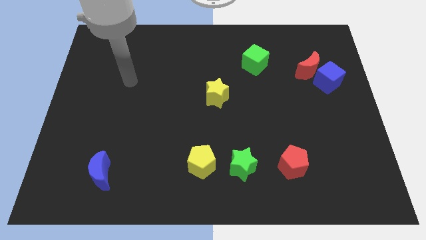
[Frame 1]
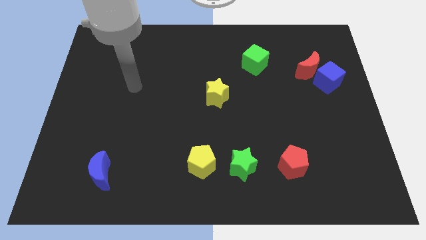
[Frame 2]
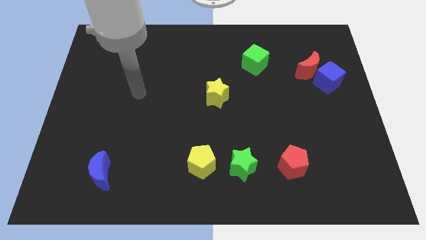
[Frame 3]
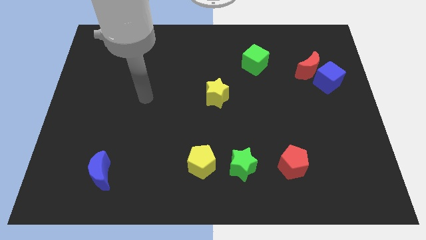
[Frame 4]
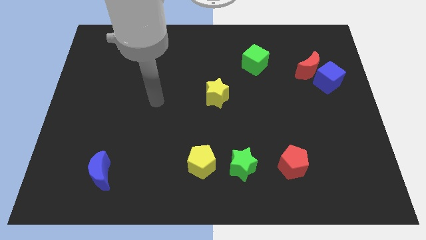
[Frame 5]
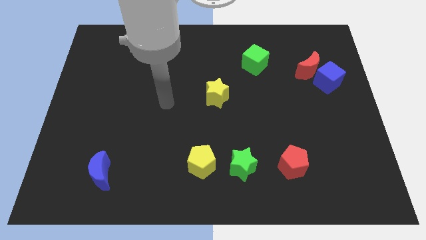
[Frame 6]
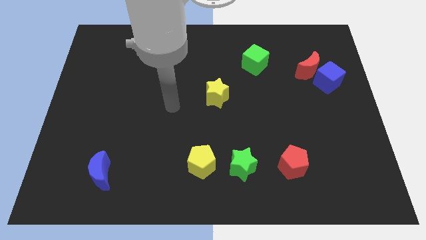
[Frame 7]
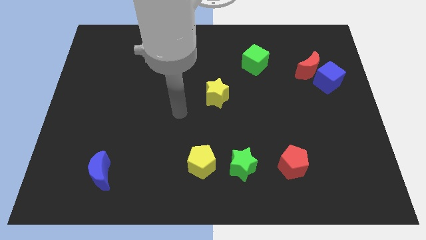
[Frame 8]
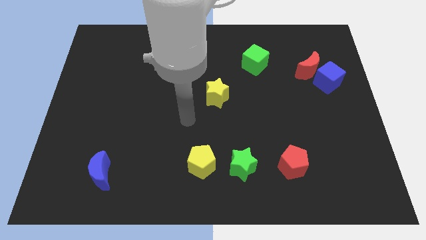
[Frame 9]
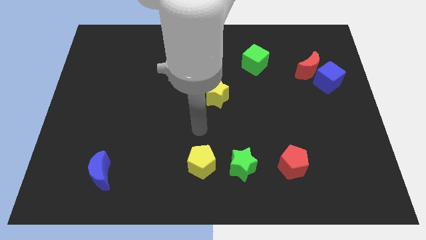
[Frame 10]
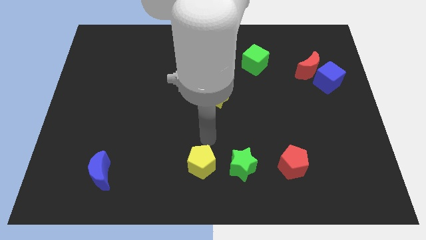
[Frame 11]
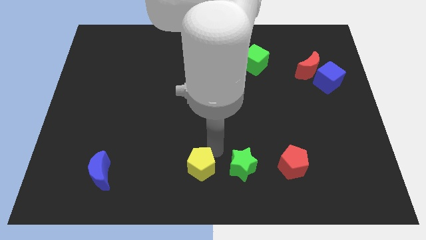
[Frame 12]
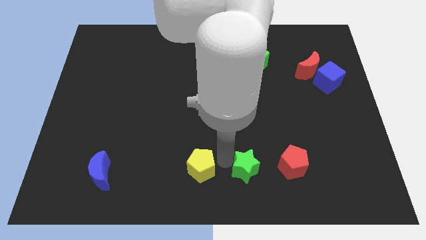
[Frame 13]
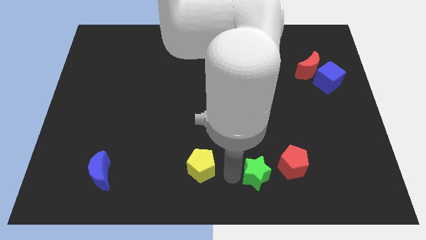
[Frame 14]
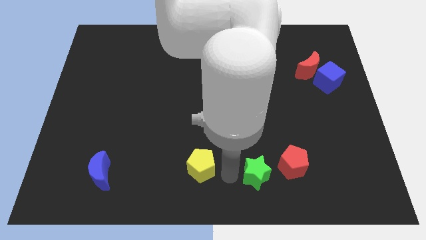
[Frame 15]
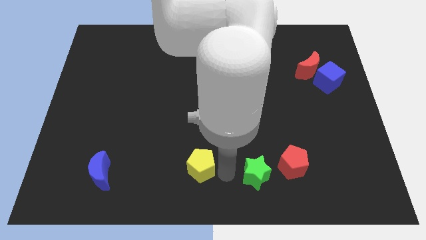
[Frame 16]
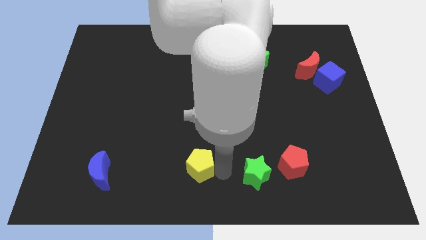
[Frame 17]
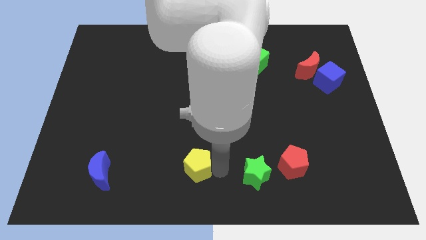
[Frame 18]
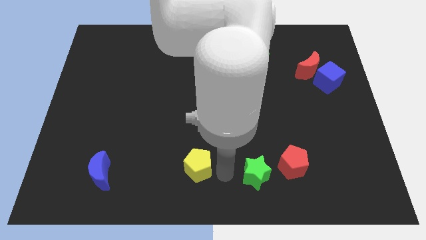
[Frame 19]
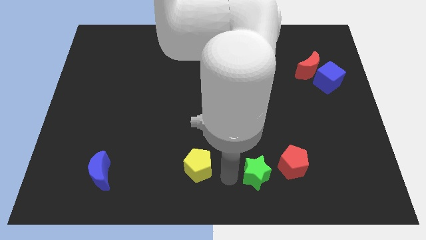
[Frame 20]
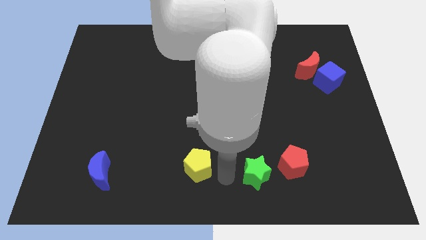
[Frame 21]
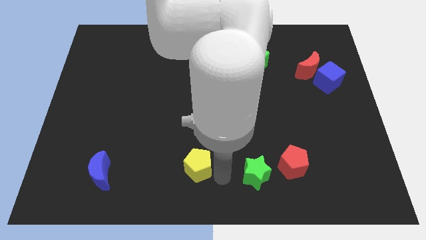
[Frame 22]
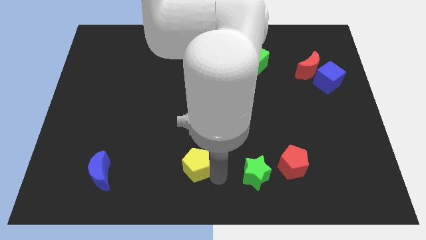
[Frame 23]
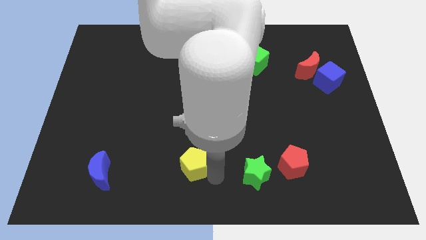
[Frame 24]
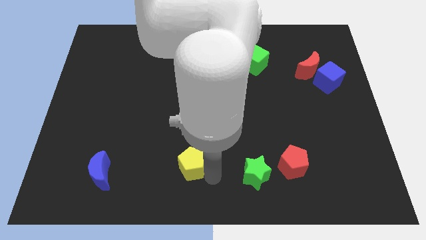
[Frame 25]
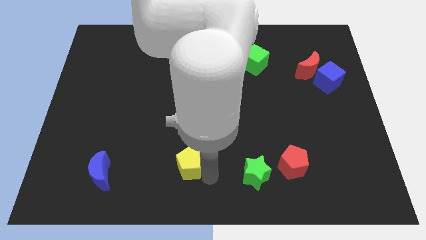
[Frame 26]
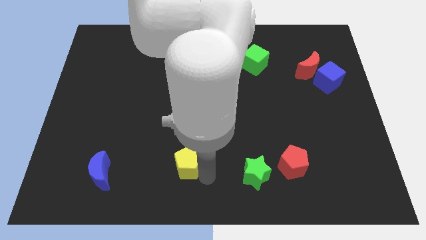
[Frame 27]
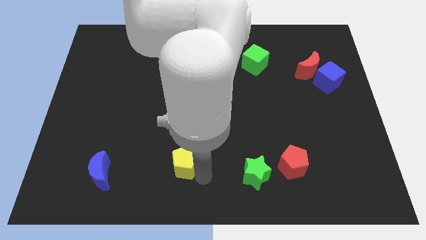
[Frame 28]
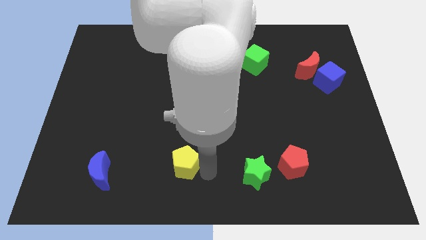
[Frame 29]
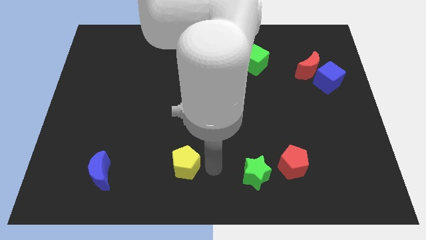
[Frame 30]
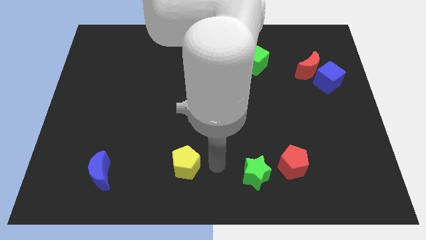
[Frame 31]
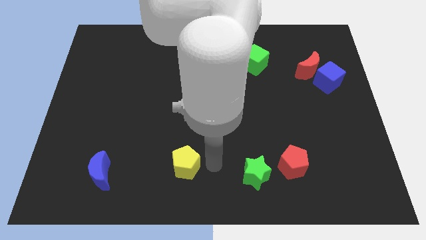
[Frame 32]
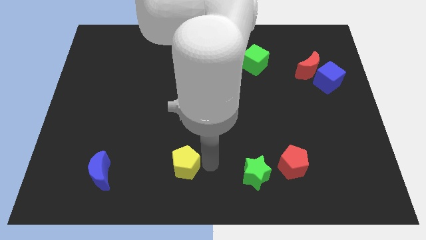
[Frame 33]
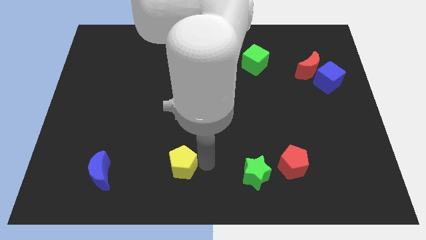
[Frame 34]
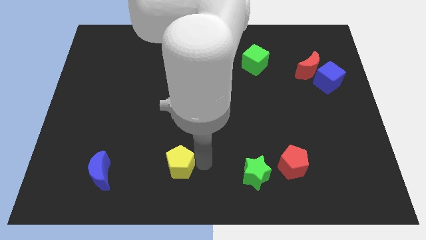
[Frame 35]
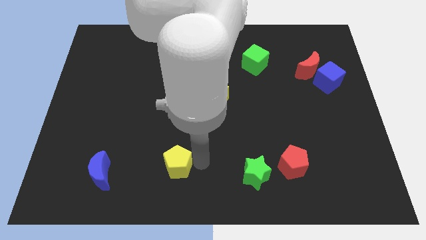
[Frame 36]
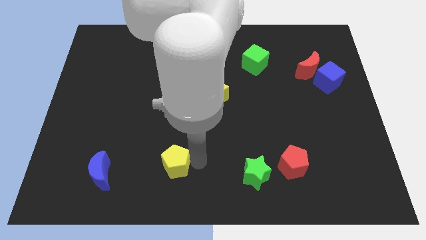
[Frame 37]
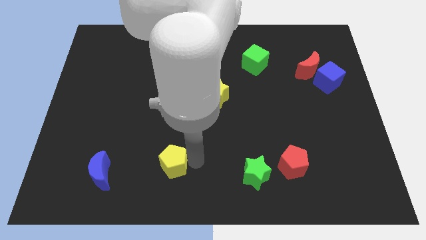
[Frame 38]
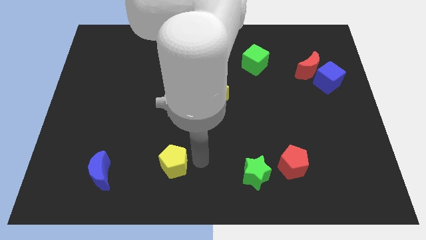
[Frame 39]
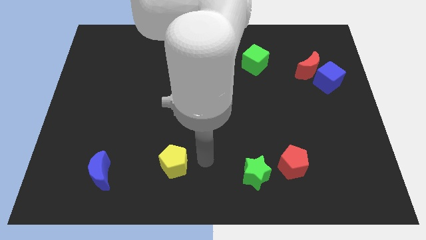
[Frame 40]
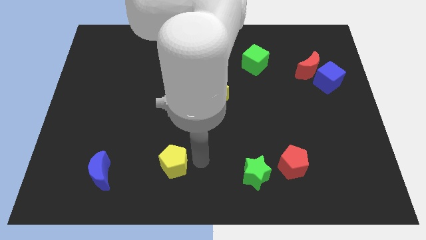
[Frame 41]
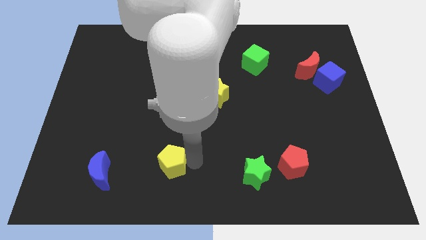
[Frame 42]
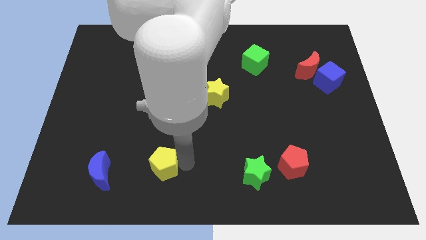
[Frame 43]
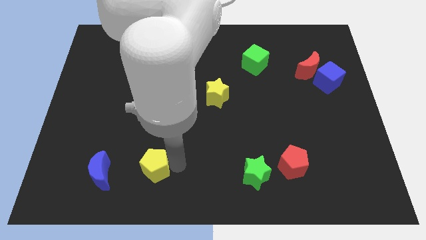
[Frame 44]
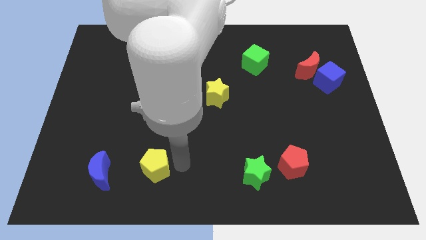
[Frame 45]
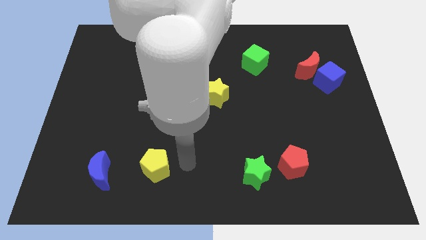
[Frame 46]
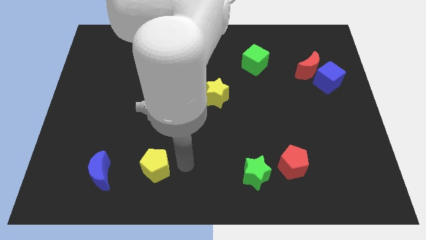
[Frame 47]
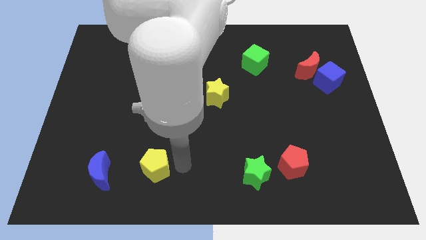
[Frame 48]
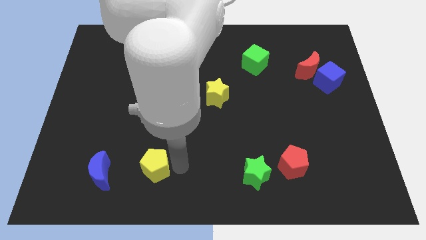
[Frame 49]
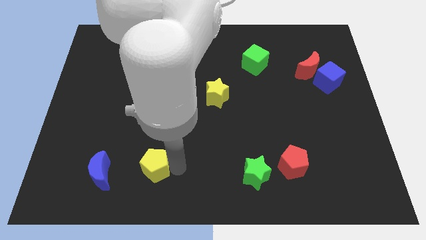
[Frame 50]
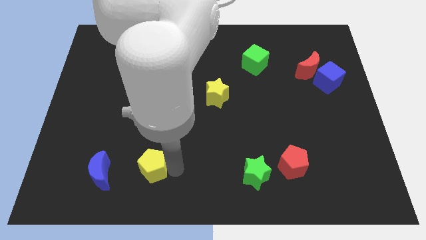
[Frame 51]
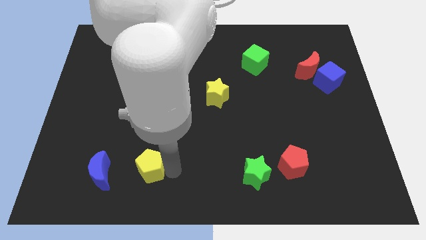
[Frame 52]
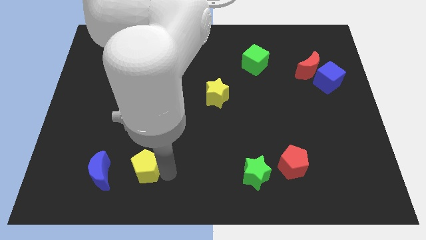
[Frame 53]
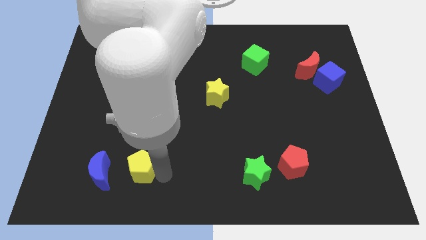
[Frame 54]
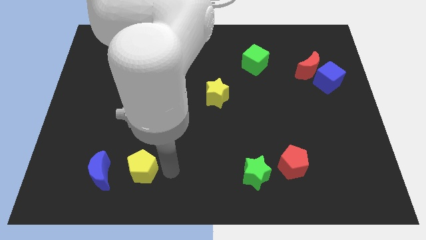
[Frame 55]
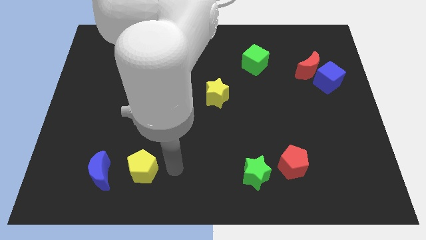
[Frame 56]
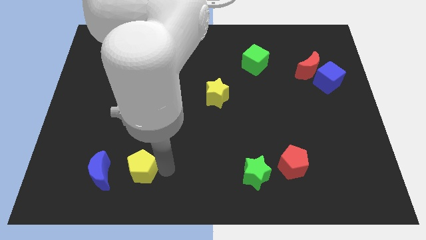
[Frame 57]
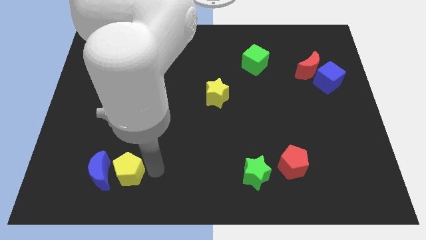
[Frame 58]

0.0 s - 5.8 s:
put the yellow pentagon to the blue moon

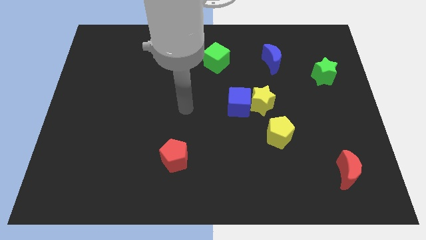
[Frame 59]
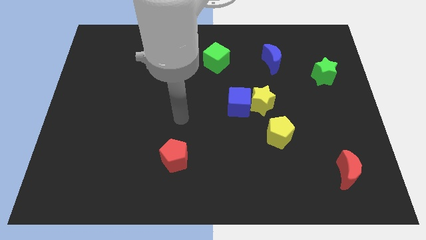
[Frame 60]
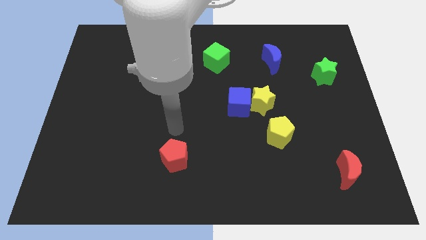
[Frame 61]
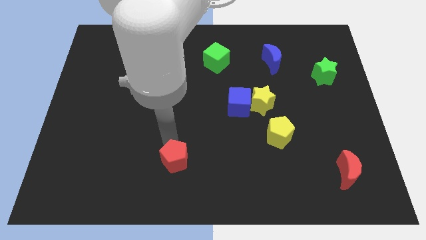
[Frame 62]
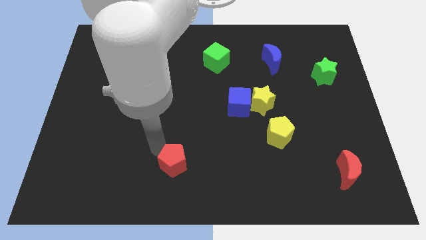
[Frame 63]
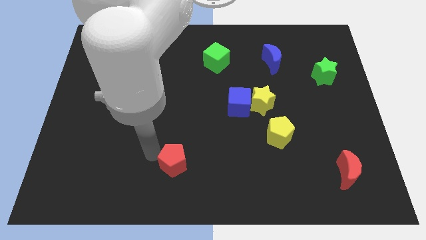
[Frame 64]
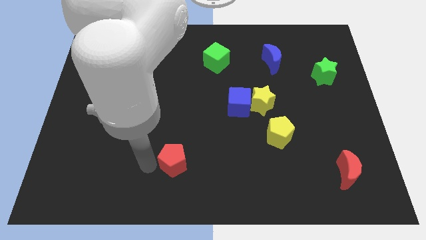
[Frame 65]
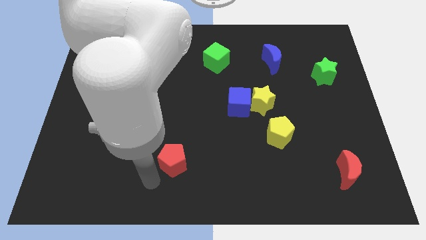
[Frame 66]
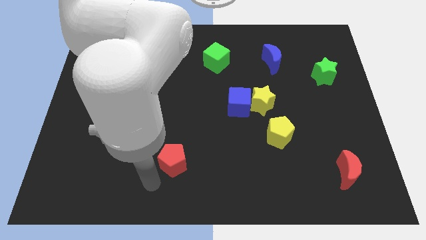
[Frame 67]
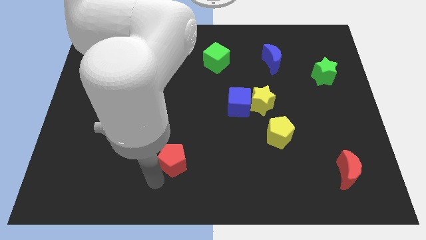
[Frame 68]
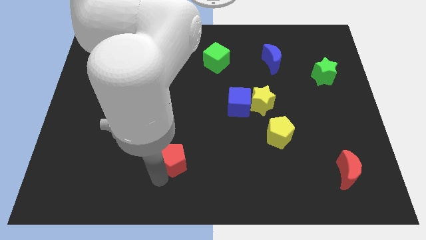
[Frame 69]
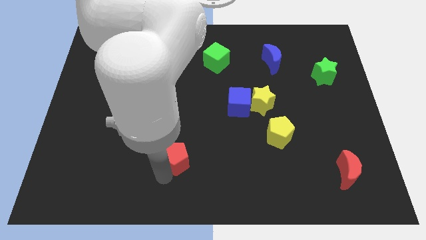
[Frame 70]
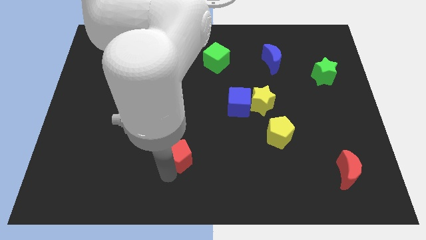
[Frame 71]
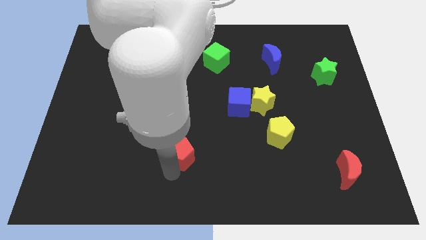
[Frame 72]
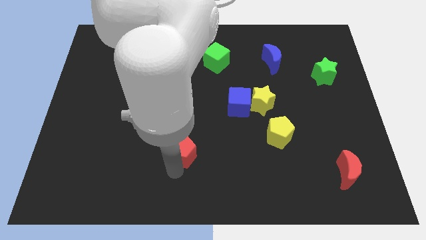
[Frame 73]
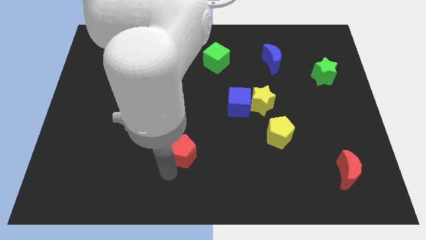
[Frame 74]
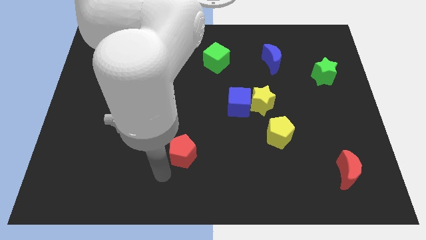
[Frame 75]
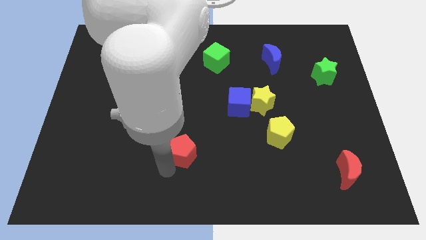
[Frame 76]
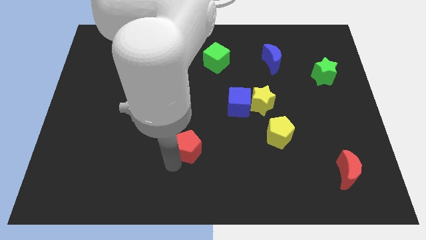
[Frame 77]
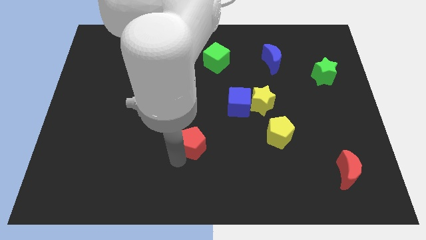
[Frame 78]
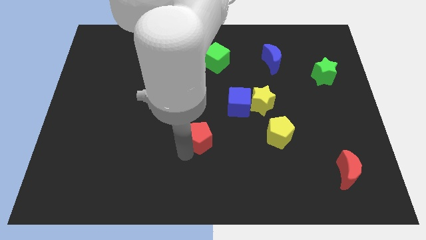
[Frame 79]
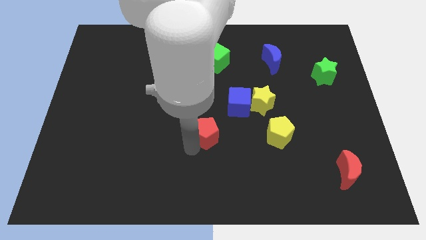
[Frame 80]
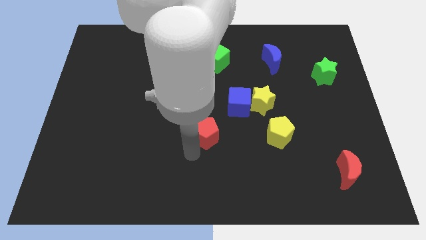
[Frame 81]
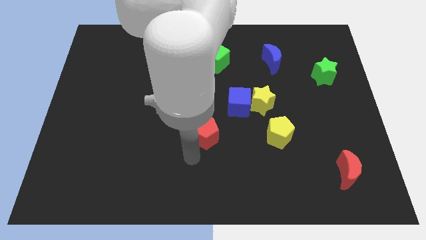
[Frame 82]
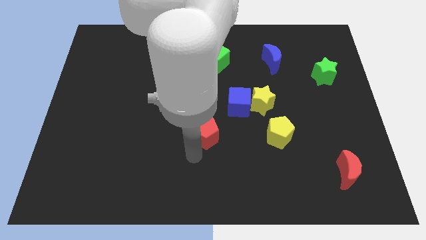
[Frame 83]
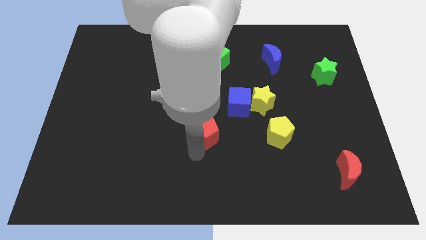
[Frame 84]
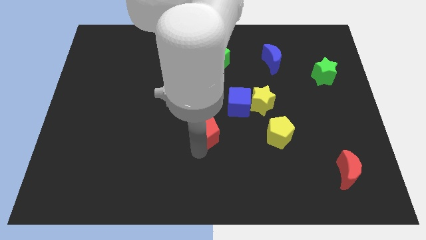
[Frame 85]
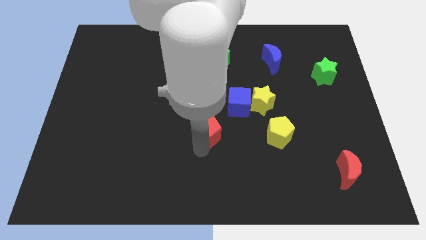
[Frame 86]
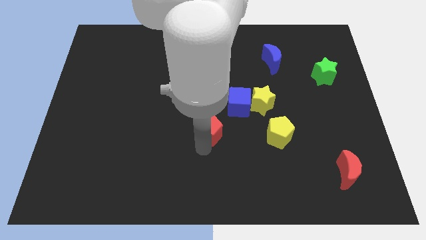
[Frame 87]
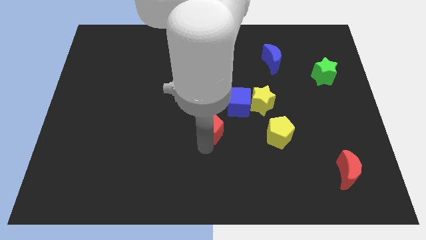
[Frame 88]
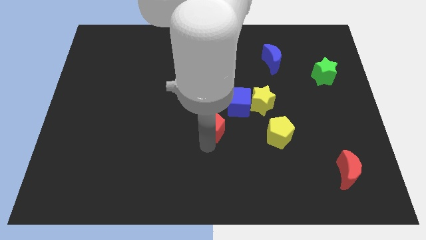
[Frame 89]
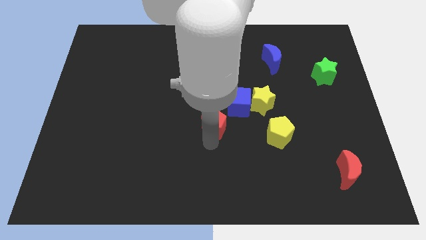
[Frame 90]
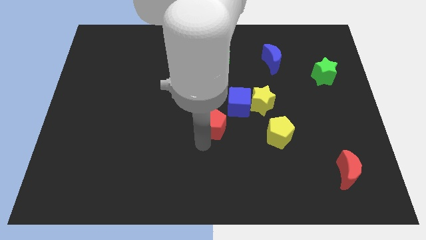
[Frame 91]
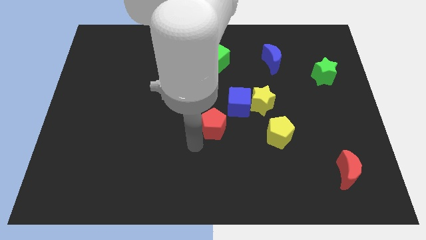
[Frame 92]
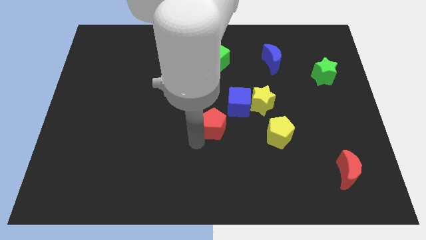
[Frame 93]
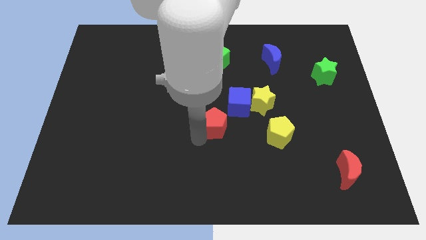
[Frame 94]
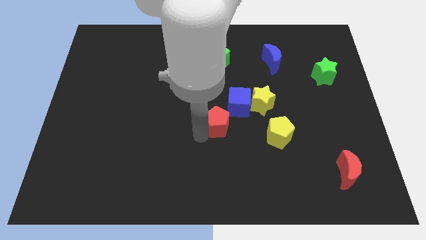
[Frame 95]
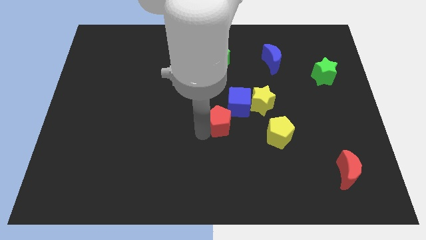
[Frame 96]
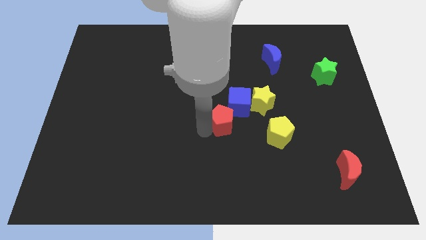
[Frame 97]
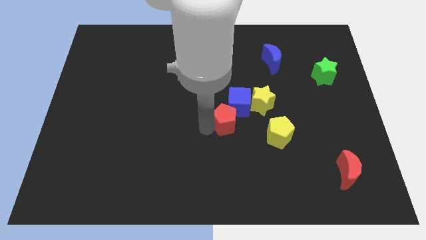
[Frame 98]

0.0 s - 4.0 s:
slide the red pentagon next to the blue cube
